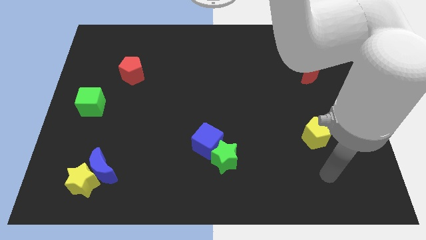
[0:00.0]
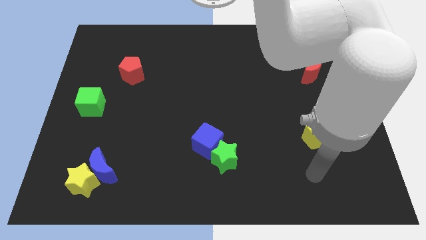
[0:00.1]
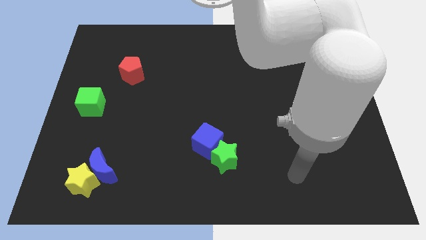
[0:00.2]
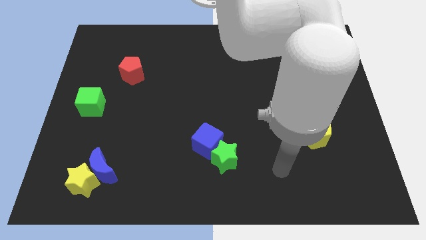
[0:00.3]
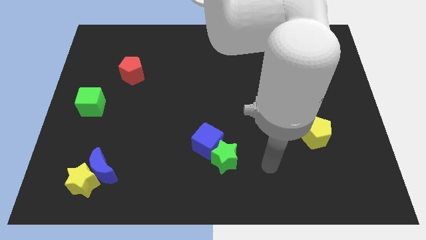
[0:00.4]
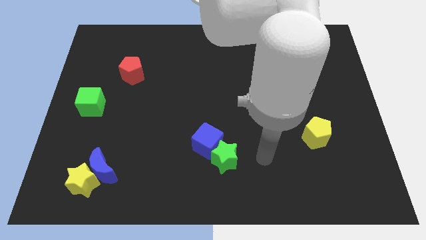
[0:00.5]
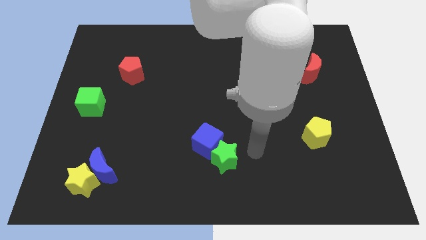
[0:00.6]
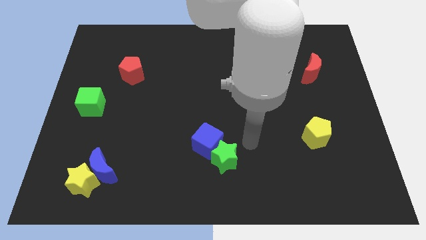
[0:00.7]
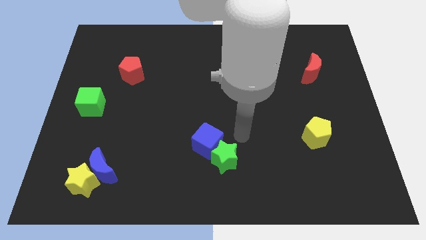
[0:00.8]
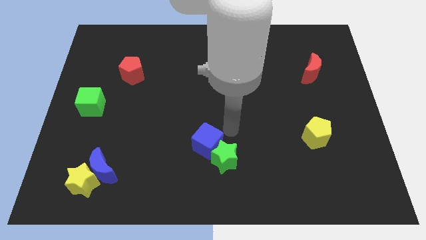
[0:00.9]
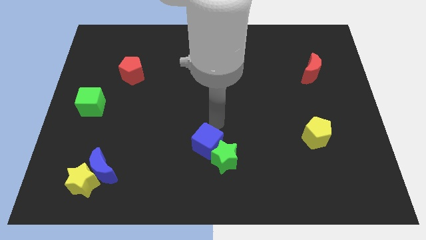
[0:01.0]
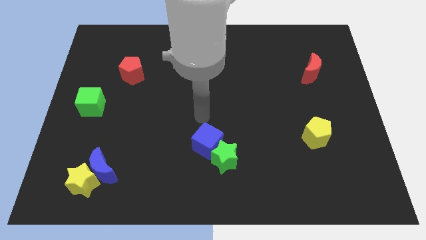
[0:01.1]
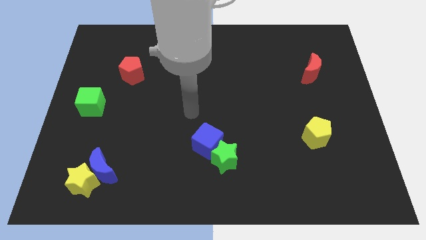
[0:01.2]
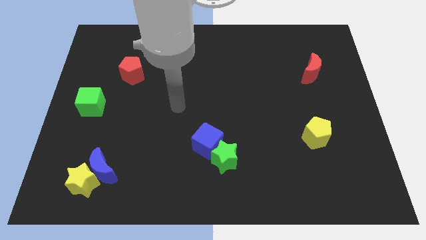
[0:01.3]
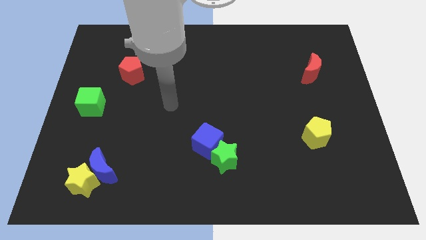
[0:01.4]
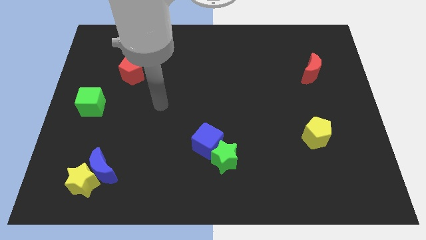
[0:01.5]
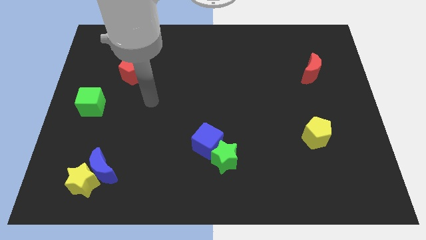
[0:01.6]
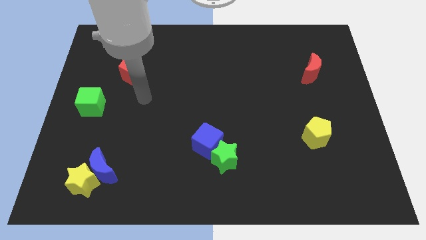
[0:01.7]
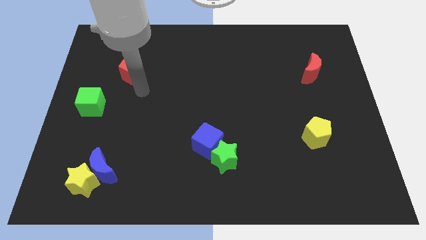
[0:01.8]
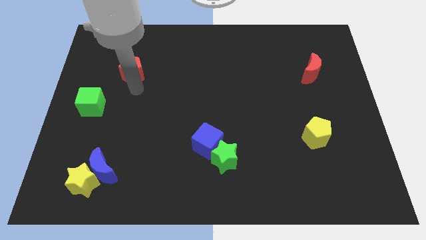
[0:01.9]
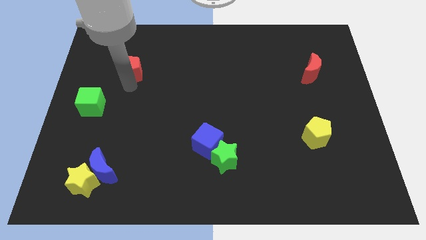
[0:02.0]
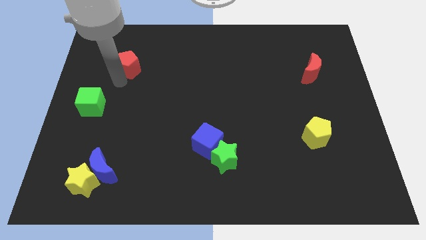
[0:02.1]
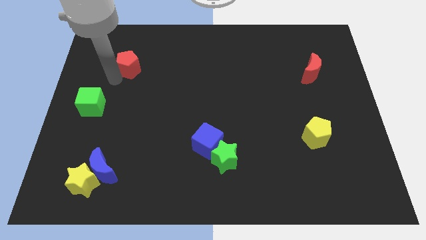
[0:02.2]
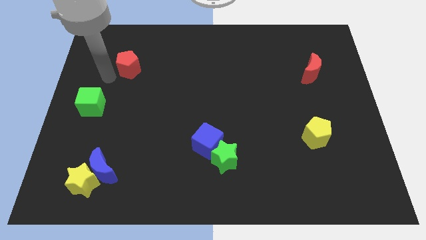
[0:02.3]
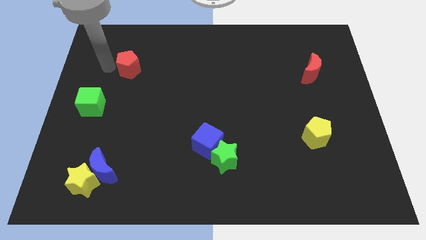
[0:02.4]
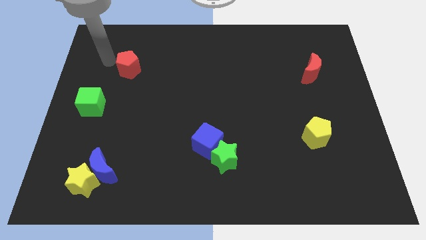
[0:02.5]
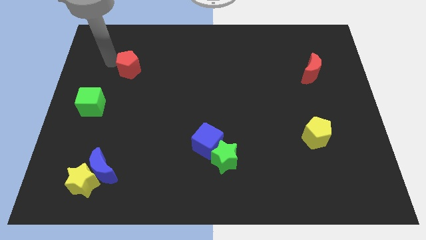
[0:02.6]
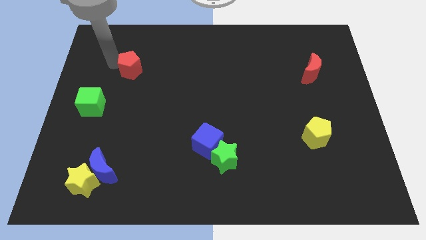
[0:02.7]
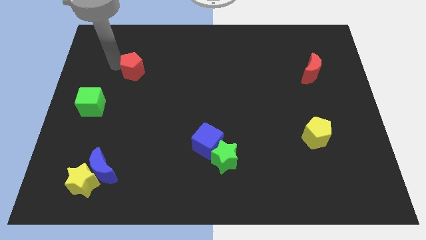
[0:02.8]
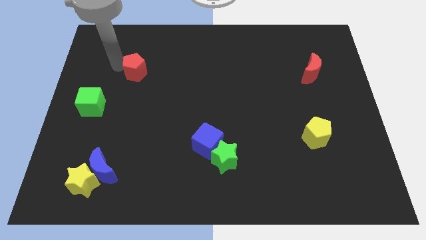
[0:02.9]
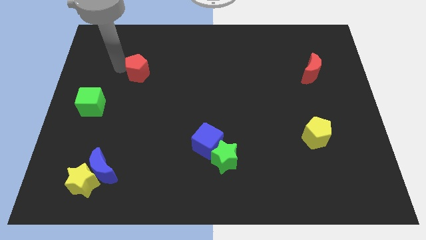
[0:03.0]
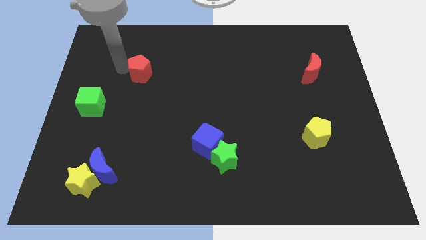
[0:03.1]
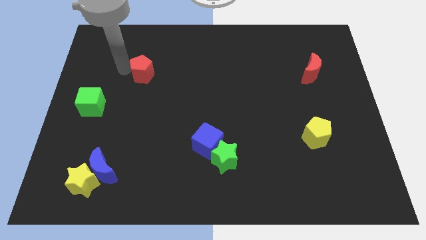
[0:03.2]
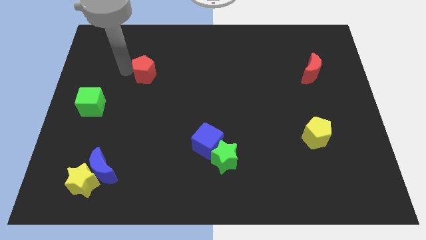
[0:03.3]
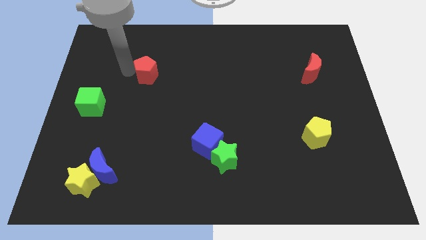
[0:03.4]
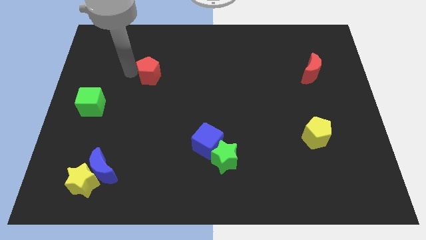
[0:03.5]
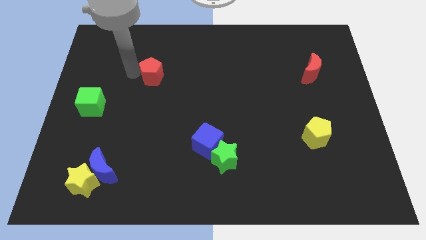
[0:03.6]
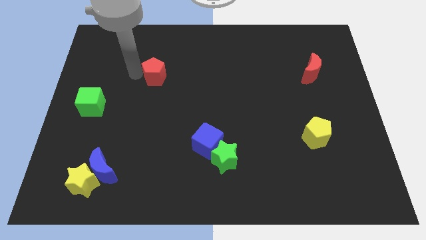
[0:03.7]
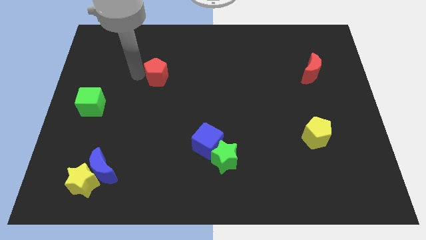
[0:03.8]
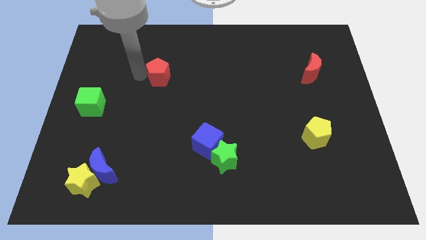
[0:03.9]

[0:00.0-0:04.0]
slightly slide the red pentagon right

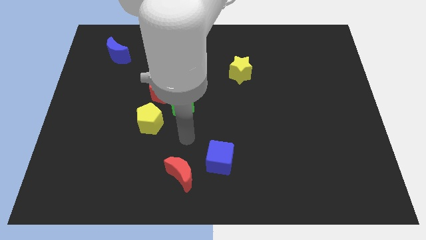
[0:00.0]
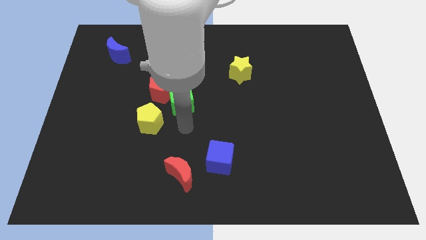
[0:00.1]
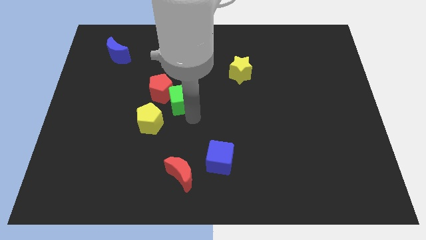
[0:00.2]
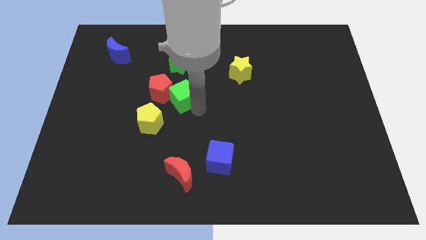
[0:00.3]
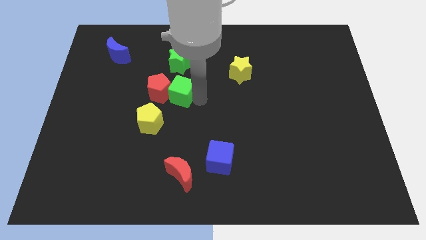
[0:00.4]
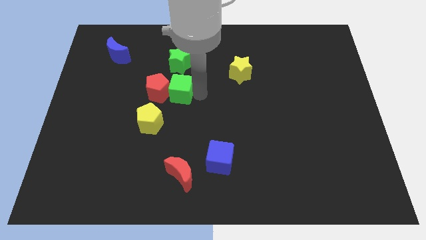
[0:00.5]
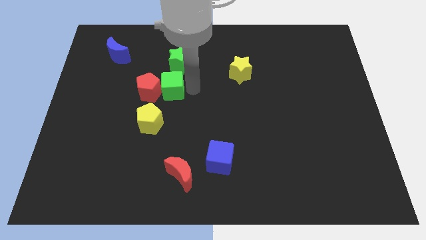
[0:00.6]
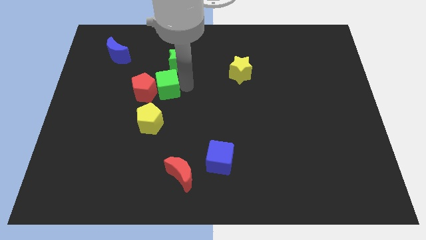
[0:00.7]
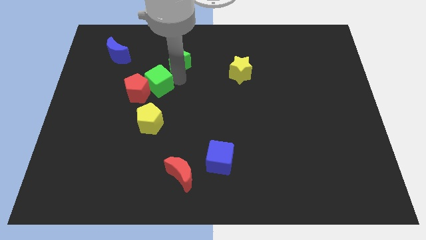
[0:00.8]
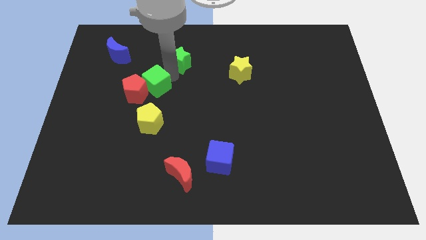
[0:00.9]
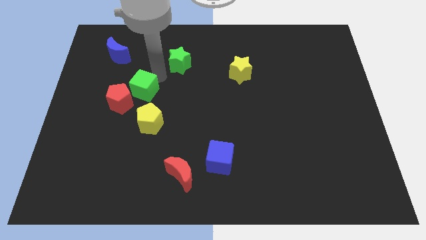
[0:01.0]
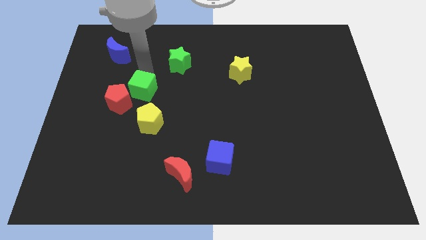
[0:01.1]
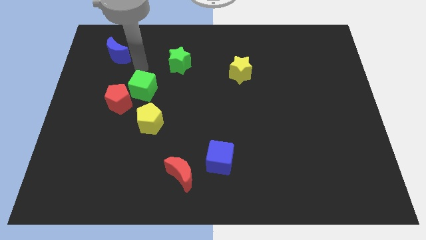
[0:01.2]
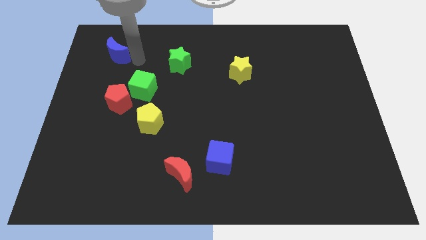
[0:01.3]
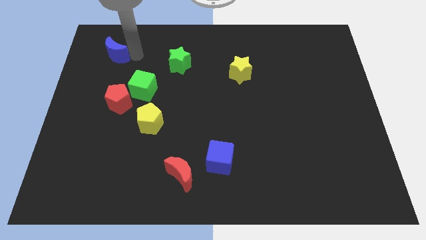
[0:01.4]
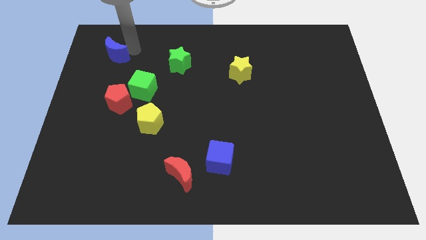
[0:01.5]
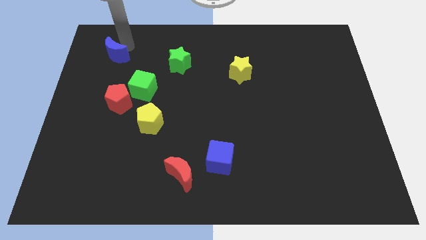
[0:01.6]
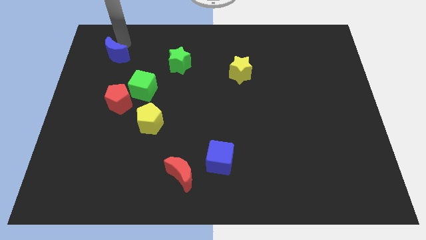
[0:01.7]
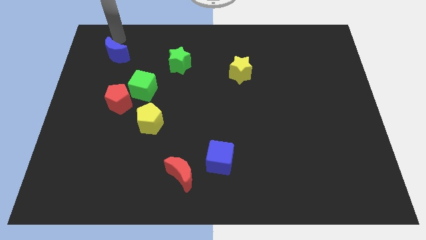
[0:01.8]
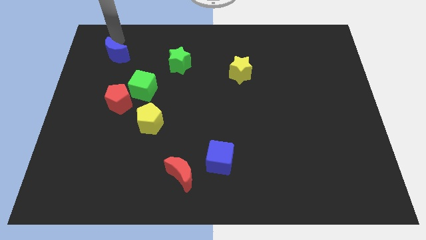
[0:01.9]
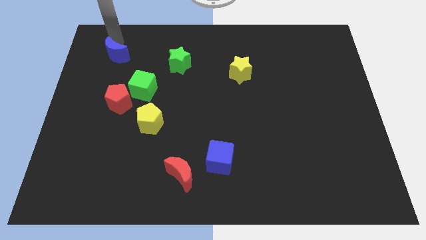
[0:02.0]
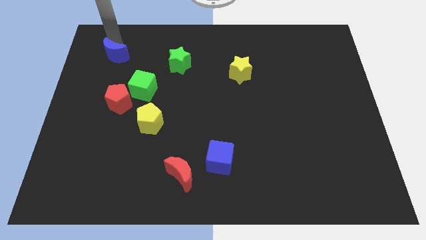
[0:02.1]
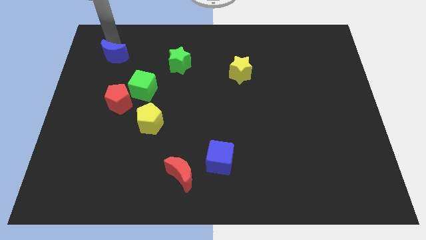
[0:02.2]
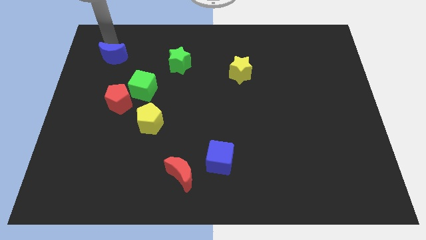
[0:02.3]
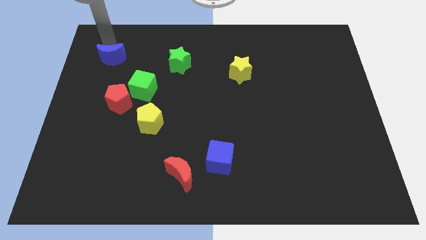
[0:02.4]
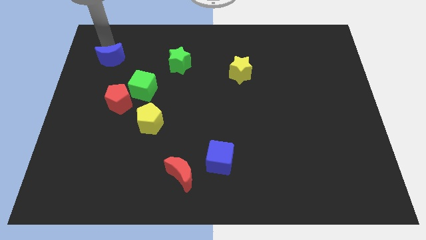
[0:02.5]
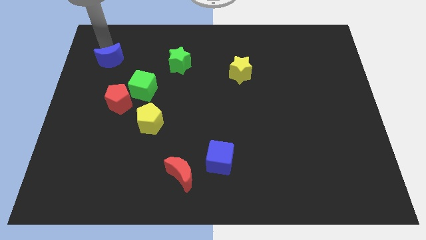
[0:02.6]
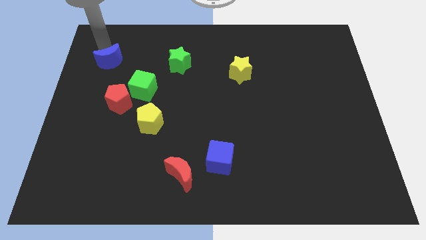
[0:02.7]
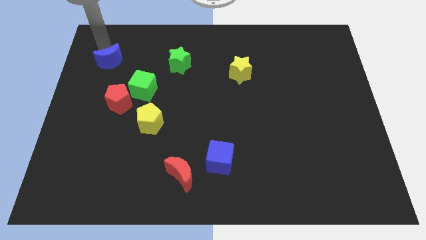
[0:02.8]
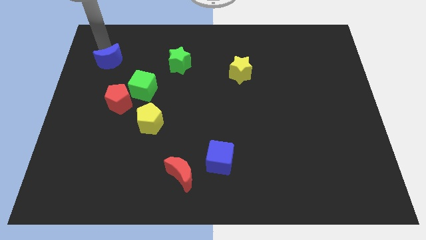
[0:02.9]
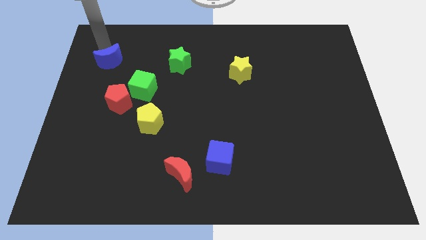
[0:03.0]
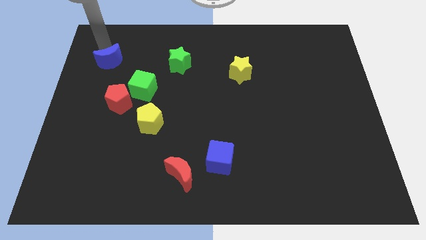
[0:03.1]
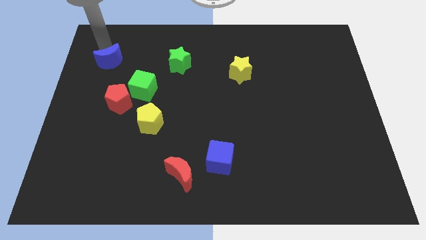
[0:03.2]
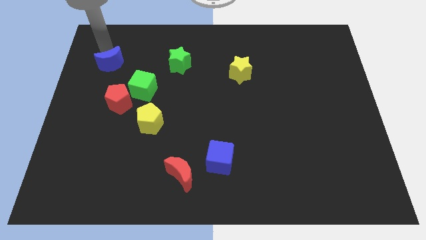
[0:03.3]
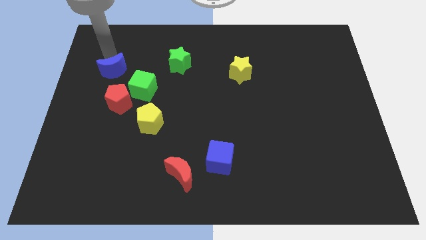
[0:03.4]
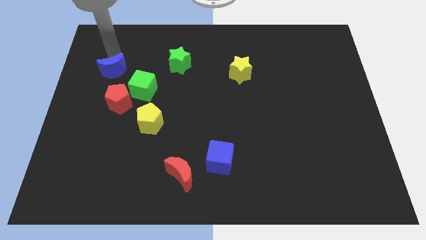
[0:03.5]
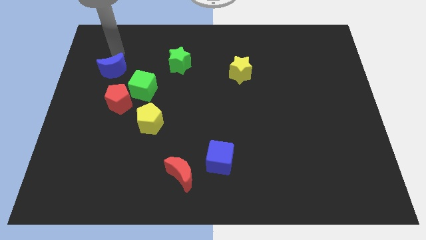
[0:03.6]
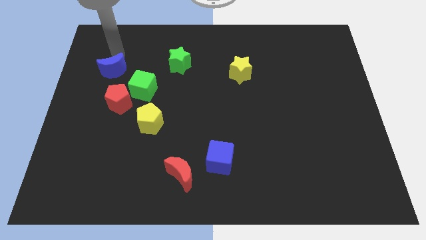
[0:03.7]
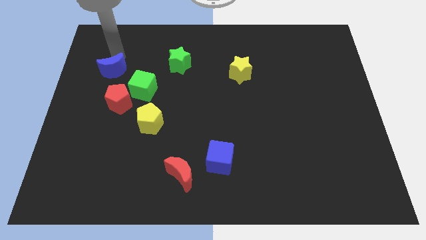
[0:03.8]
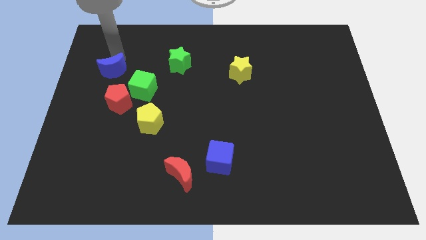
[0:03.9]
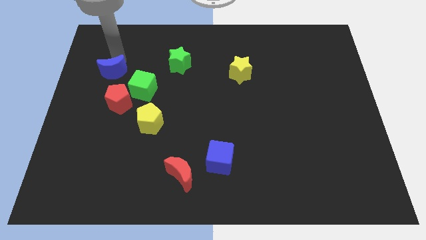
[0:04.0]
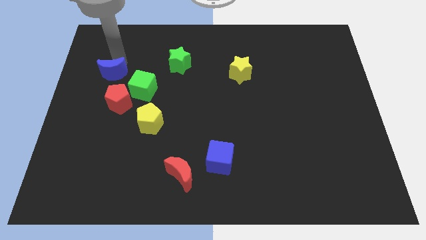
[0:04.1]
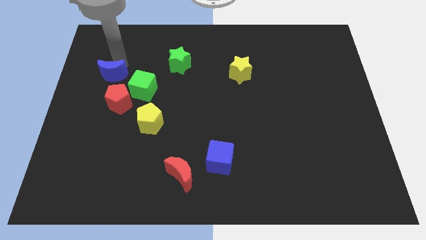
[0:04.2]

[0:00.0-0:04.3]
push the blue moon down a little
